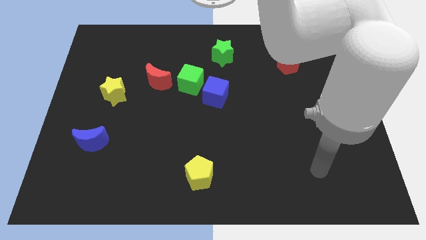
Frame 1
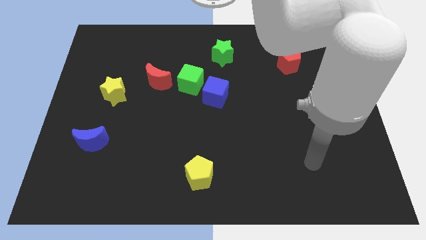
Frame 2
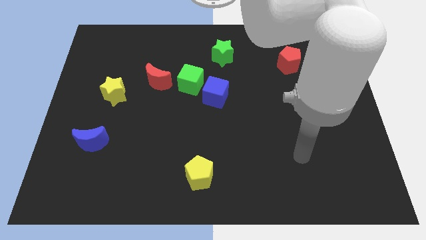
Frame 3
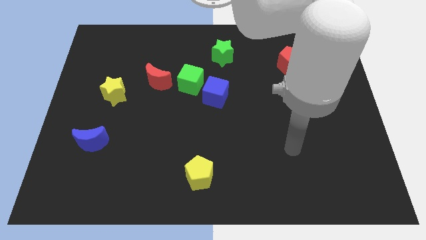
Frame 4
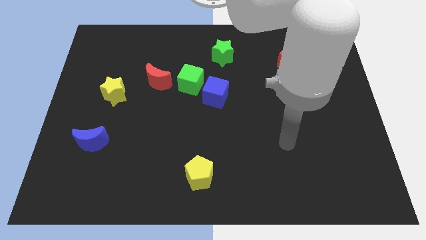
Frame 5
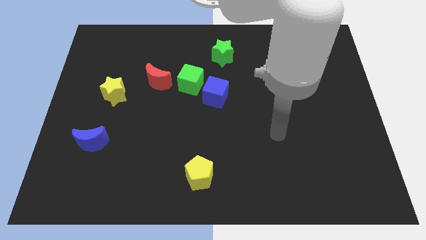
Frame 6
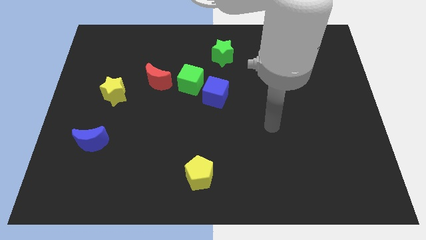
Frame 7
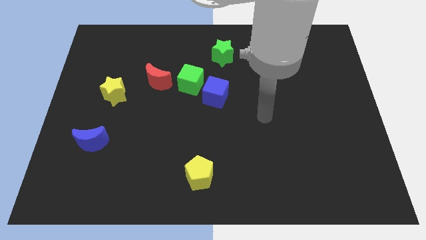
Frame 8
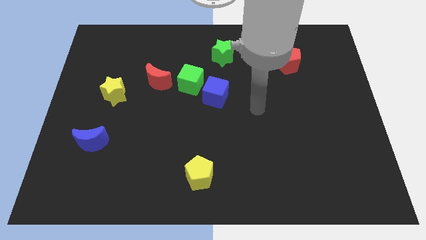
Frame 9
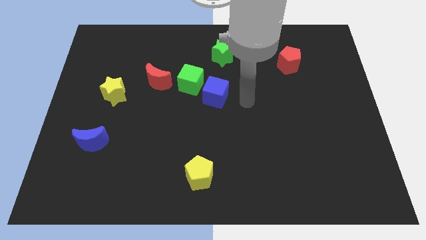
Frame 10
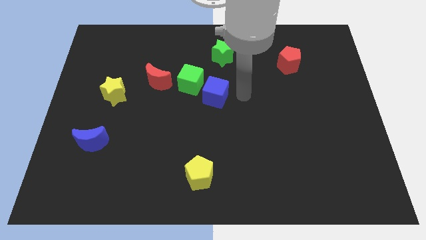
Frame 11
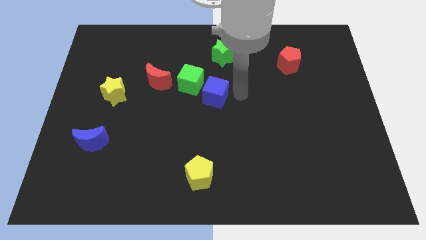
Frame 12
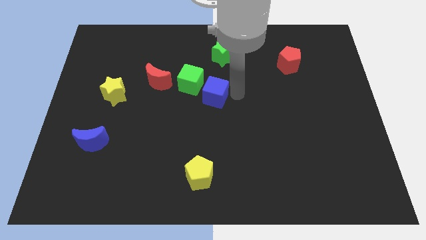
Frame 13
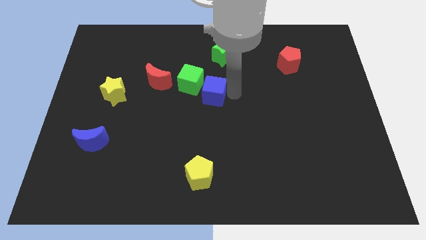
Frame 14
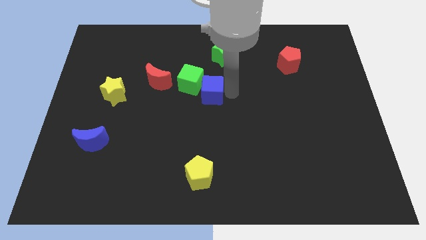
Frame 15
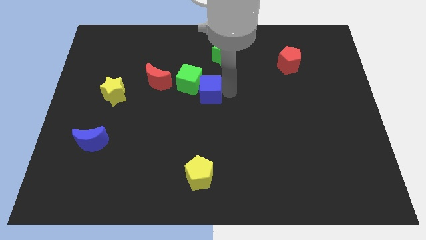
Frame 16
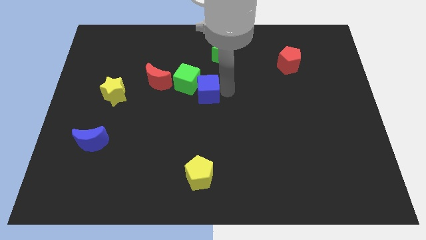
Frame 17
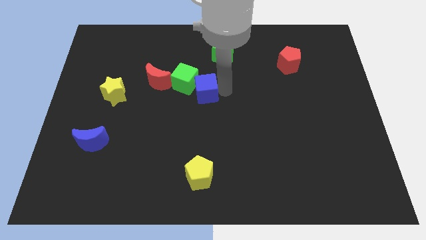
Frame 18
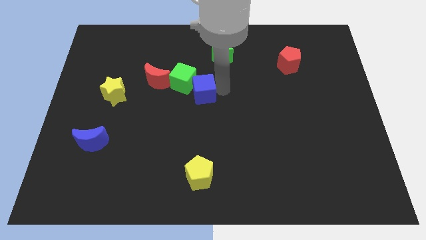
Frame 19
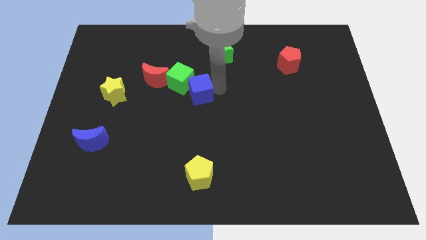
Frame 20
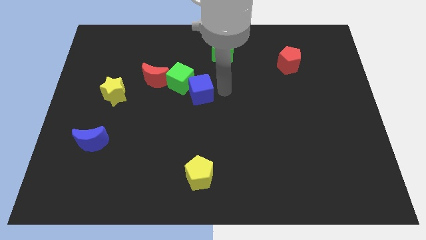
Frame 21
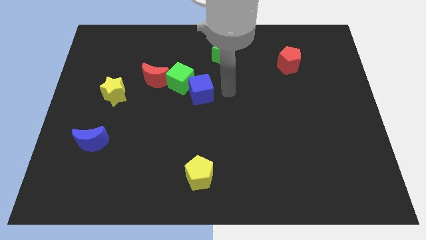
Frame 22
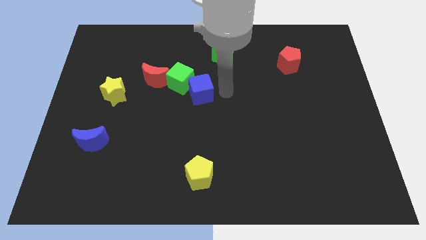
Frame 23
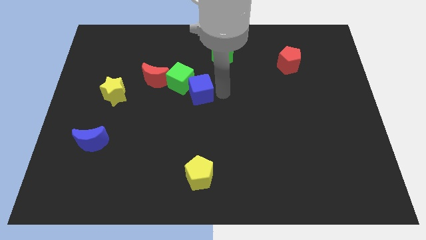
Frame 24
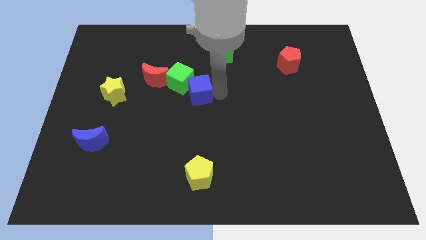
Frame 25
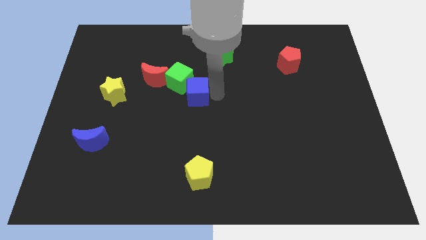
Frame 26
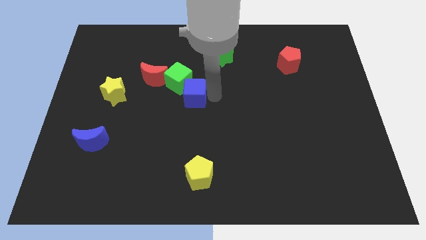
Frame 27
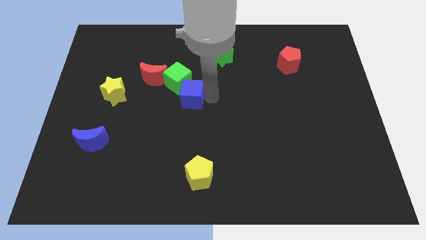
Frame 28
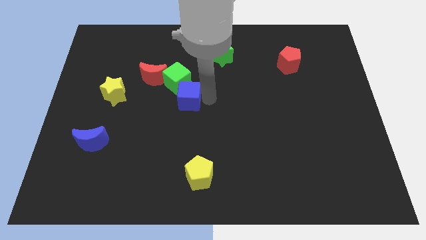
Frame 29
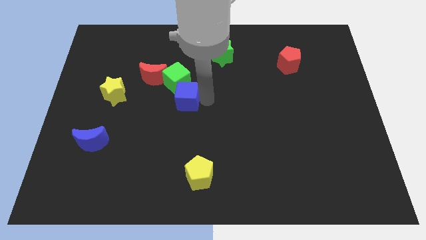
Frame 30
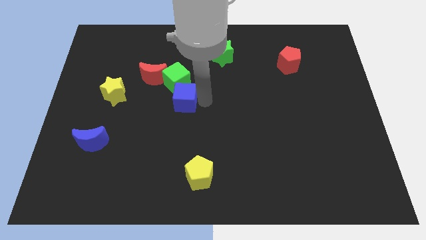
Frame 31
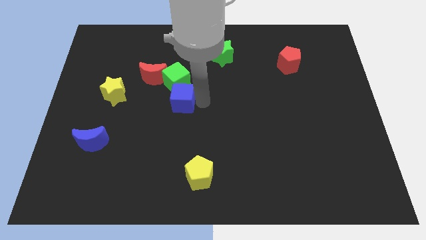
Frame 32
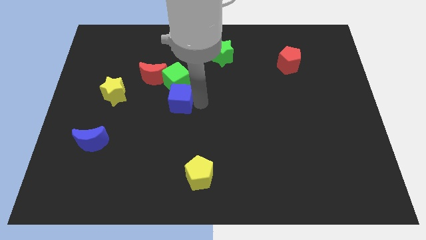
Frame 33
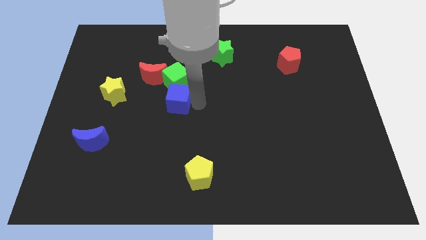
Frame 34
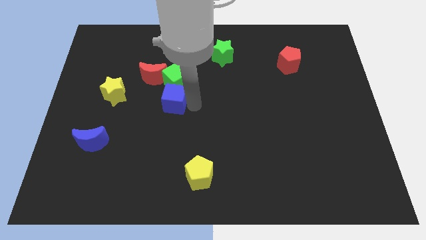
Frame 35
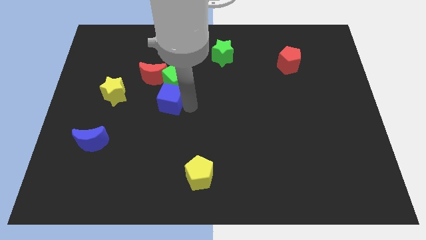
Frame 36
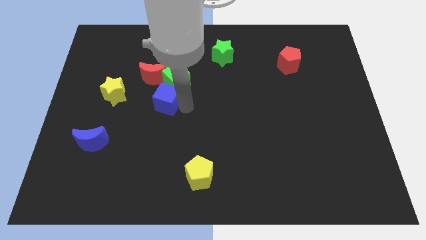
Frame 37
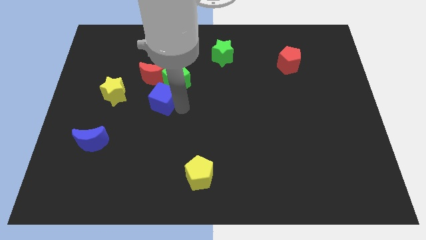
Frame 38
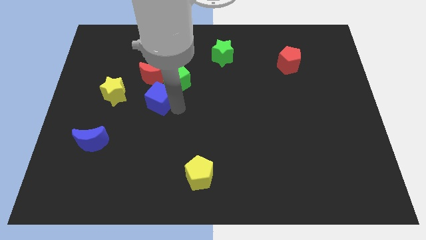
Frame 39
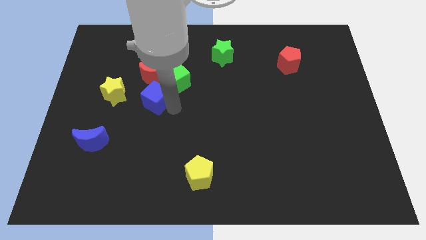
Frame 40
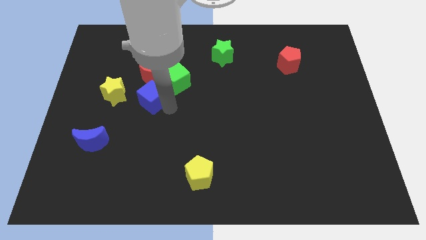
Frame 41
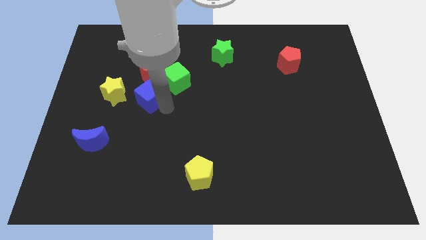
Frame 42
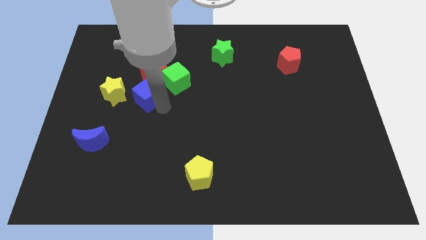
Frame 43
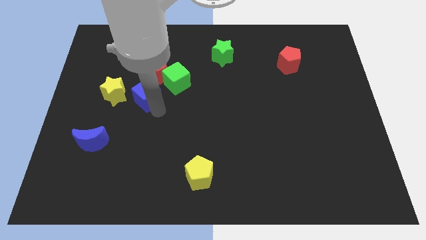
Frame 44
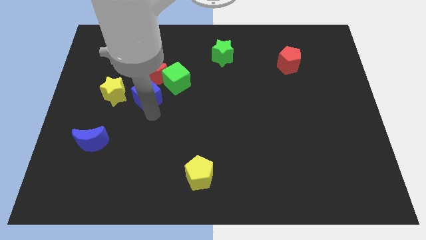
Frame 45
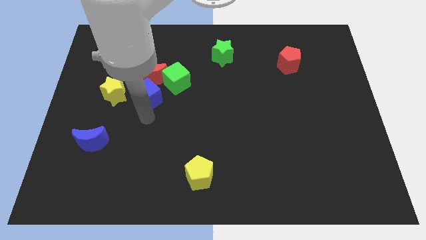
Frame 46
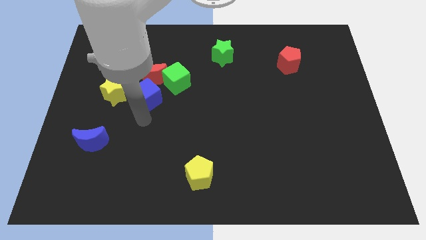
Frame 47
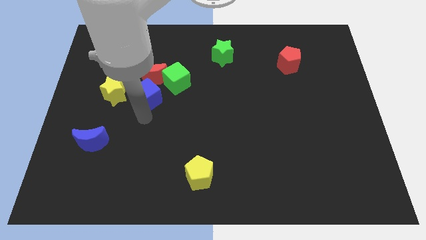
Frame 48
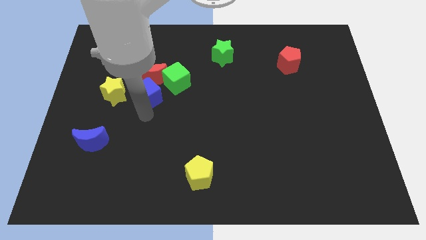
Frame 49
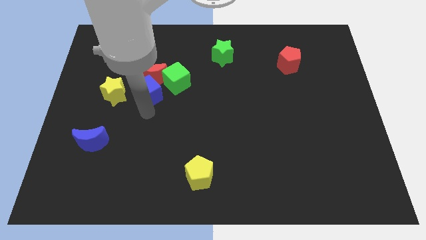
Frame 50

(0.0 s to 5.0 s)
slide the blue cube to the red moon

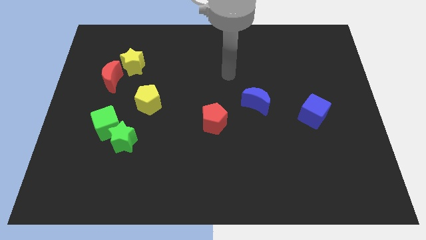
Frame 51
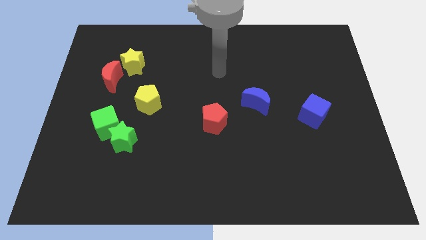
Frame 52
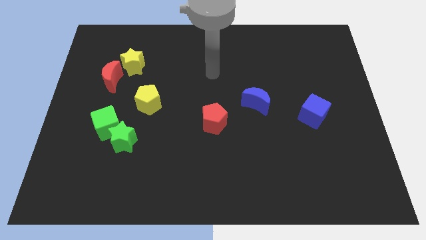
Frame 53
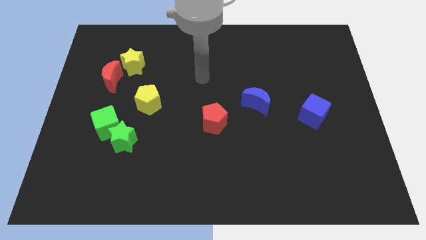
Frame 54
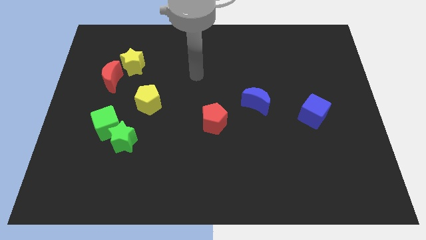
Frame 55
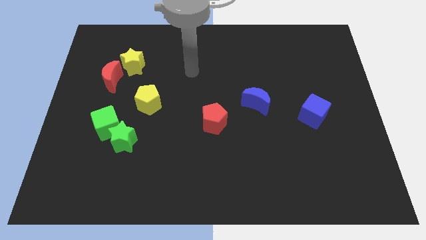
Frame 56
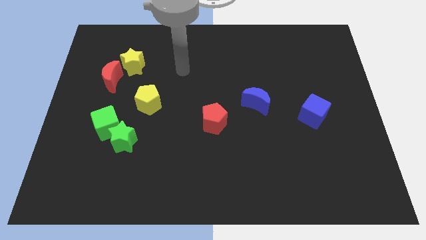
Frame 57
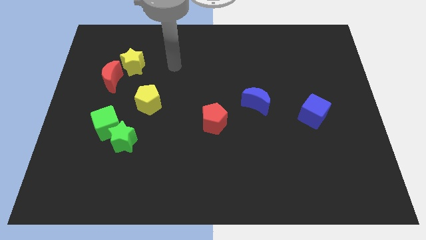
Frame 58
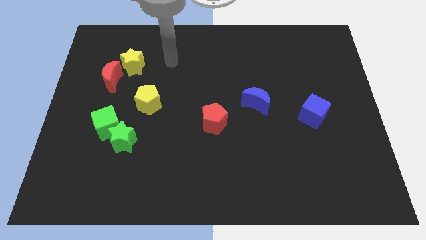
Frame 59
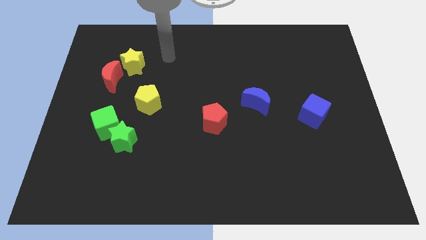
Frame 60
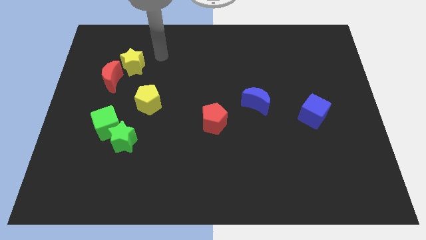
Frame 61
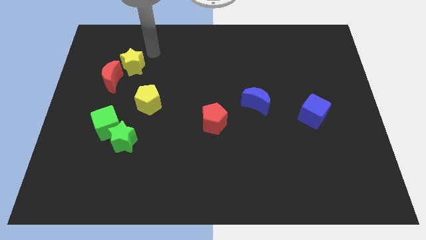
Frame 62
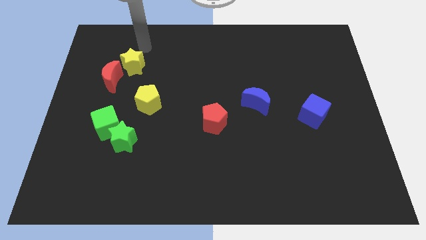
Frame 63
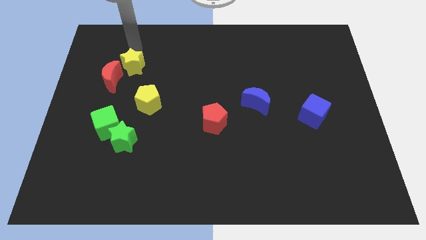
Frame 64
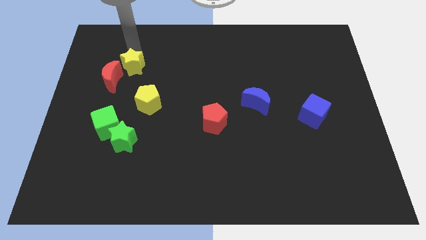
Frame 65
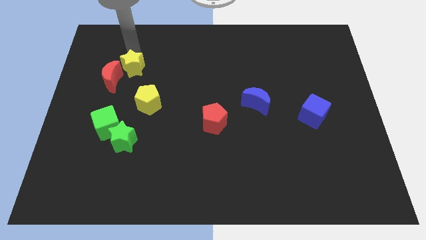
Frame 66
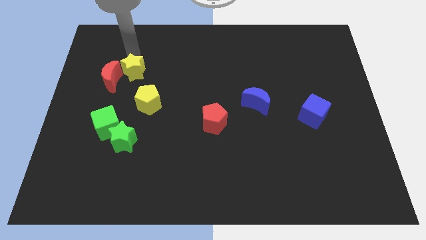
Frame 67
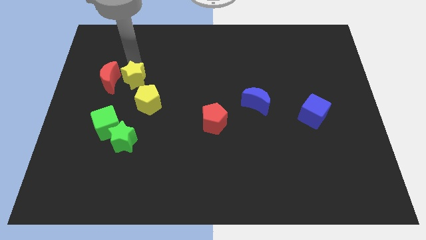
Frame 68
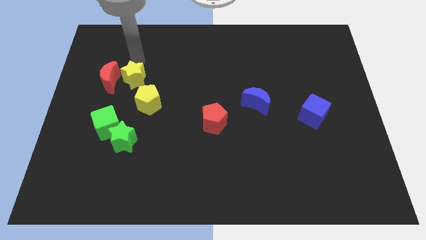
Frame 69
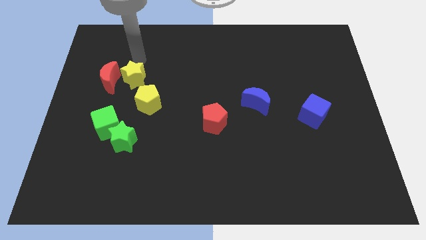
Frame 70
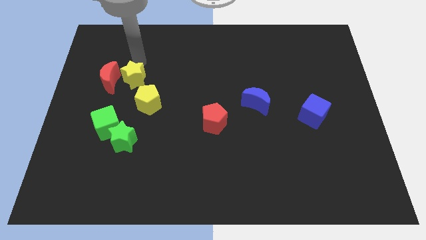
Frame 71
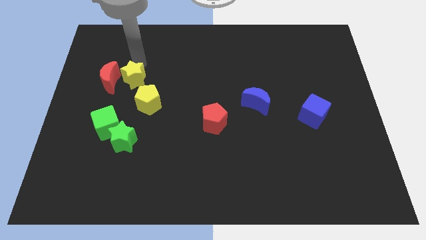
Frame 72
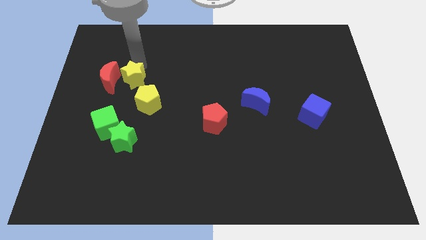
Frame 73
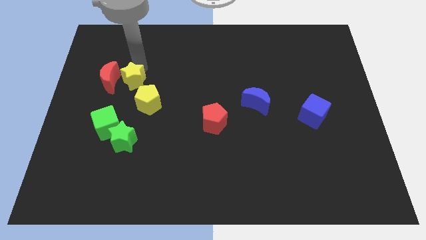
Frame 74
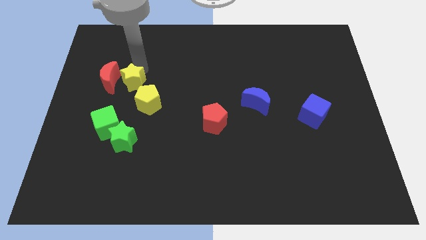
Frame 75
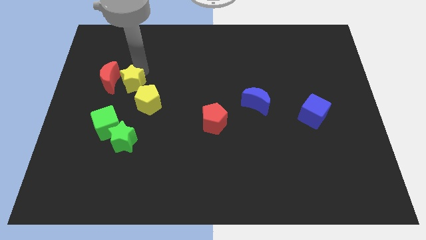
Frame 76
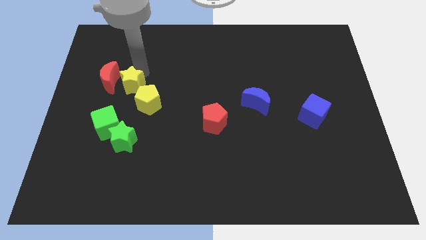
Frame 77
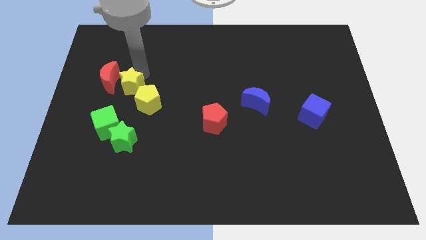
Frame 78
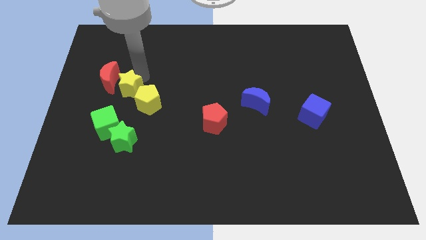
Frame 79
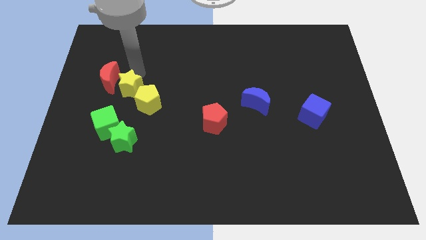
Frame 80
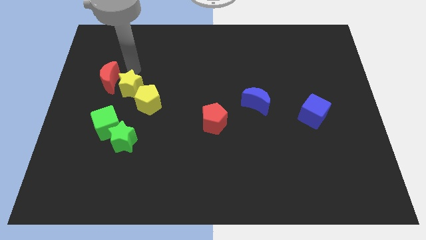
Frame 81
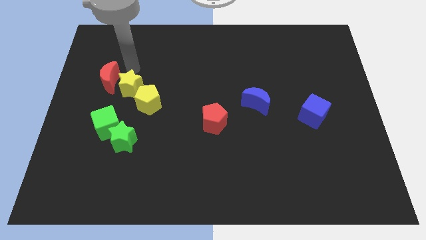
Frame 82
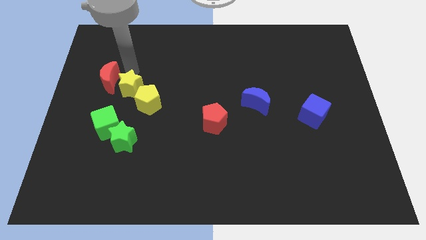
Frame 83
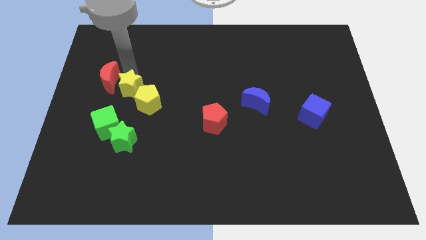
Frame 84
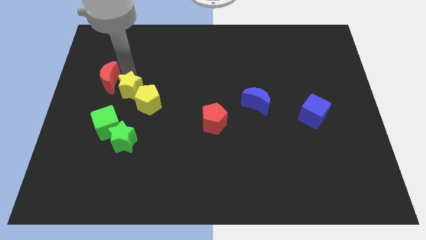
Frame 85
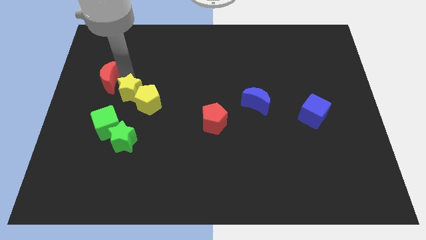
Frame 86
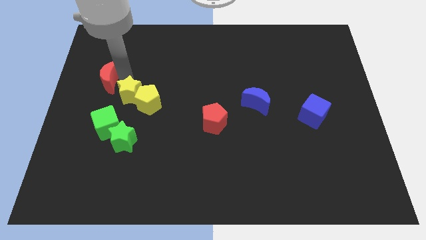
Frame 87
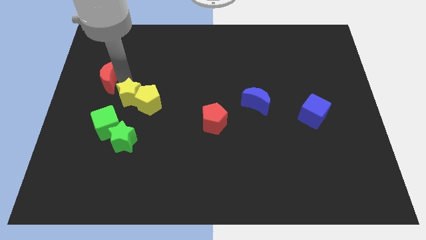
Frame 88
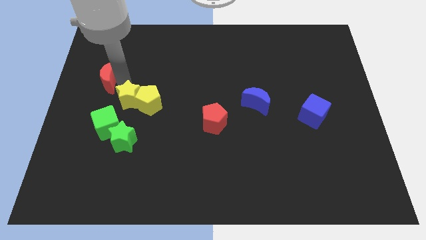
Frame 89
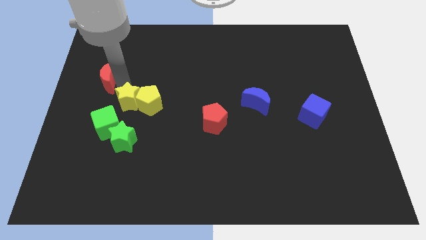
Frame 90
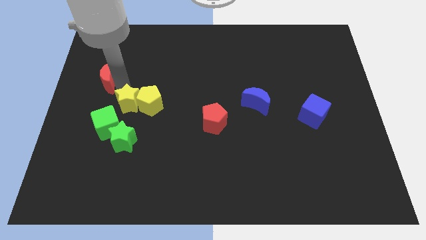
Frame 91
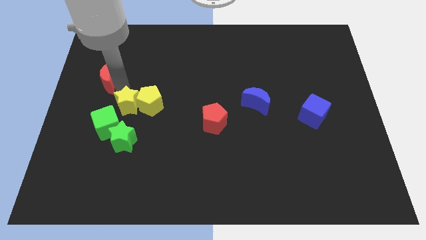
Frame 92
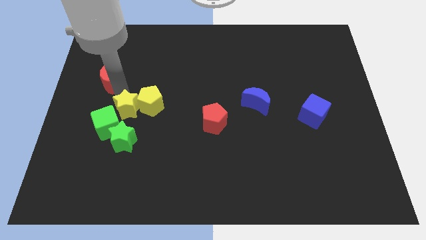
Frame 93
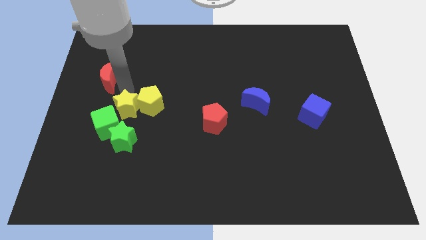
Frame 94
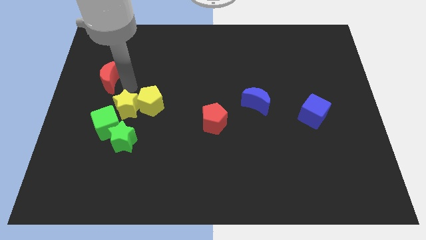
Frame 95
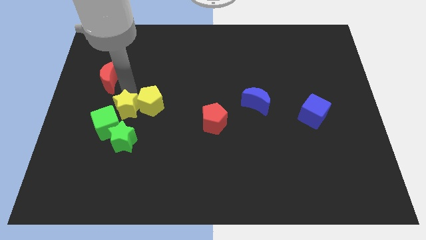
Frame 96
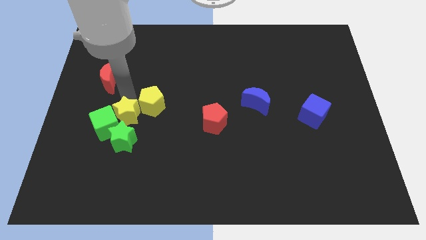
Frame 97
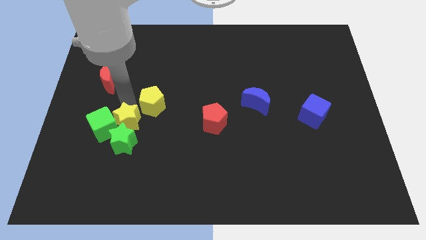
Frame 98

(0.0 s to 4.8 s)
put the yellow star to the green star
